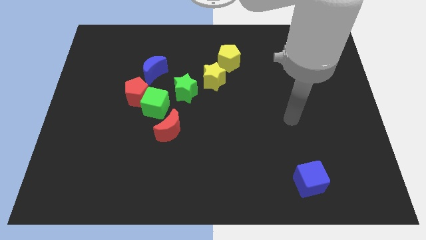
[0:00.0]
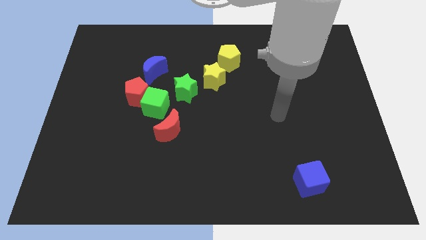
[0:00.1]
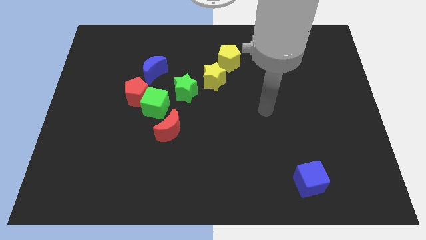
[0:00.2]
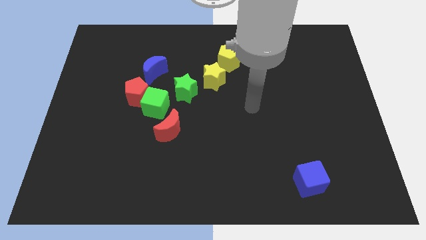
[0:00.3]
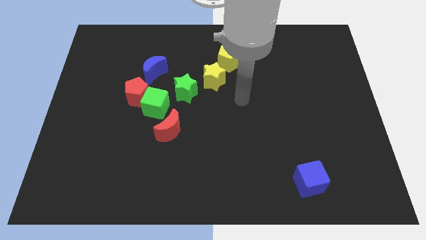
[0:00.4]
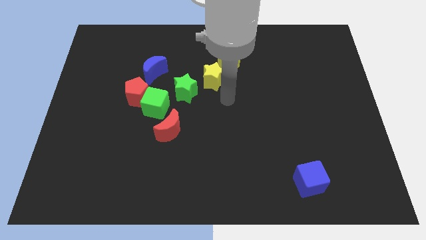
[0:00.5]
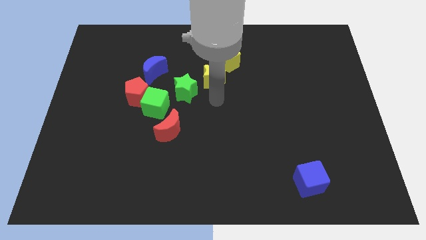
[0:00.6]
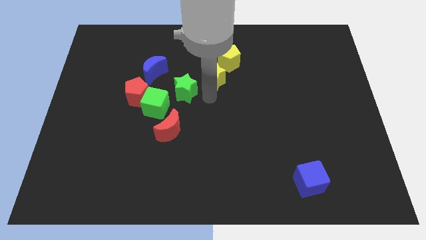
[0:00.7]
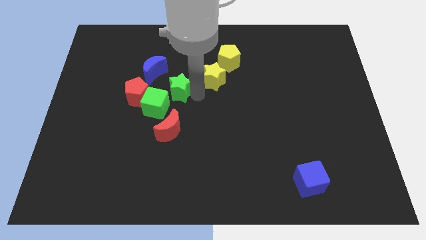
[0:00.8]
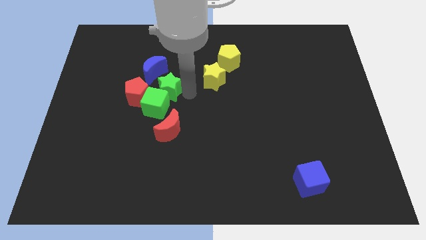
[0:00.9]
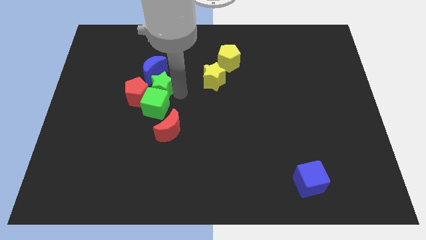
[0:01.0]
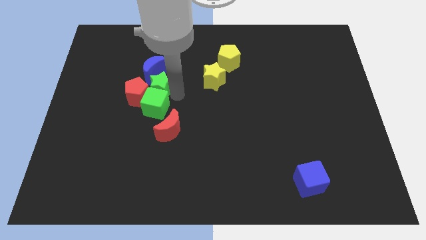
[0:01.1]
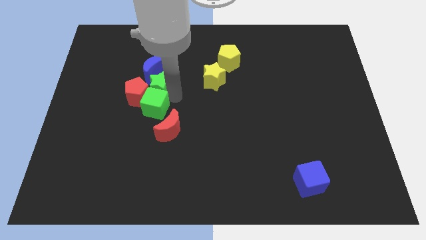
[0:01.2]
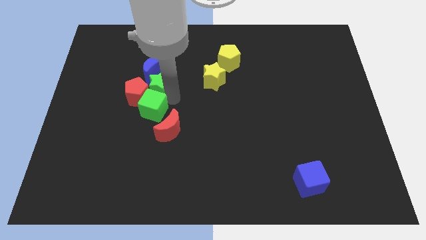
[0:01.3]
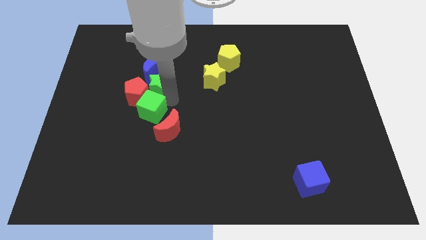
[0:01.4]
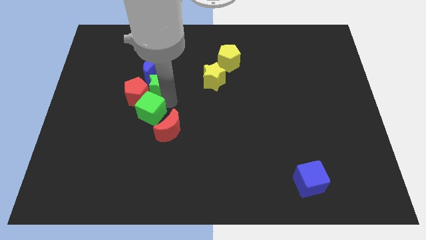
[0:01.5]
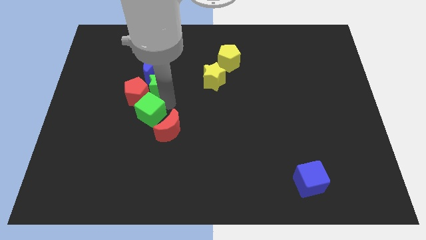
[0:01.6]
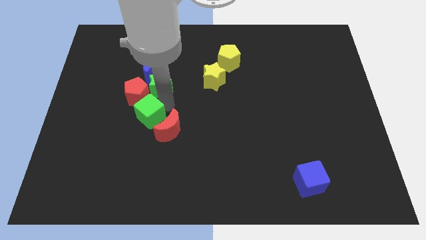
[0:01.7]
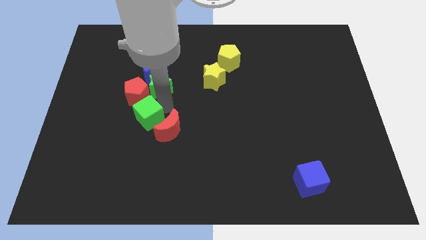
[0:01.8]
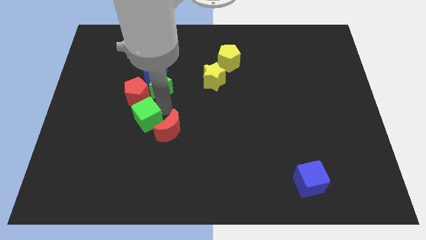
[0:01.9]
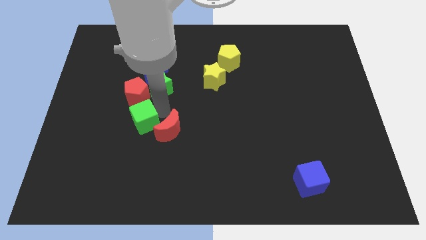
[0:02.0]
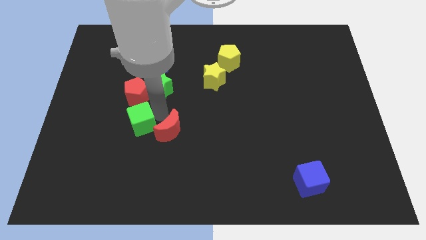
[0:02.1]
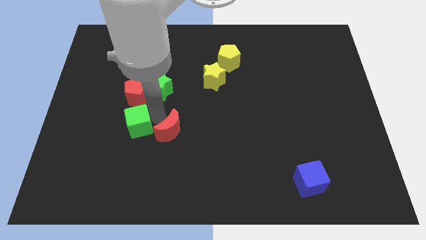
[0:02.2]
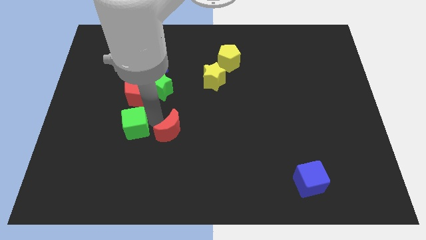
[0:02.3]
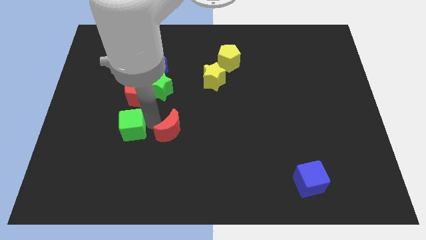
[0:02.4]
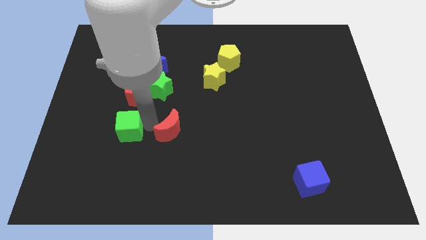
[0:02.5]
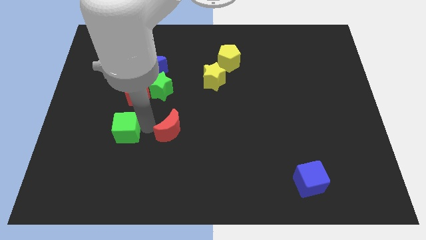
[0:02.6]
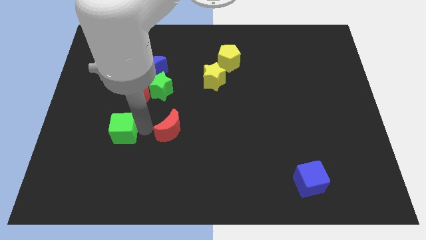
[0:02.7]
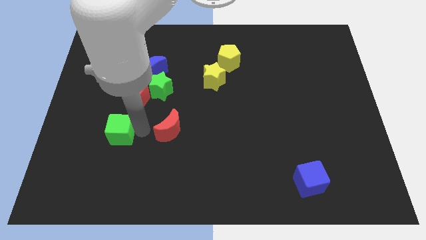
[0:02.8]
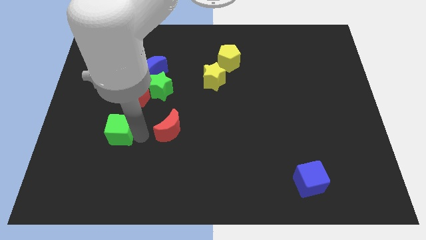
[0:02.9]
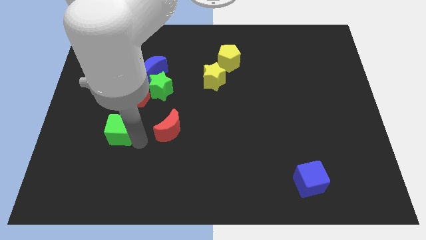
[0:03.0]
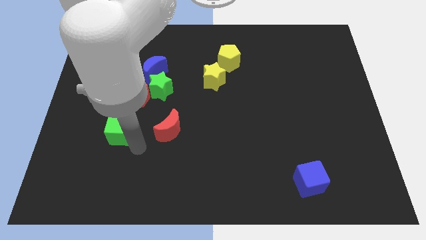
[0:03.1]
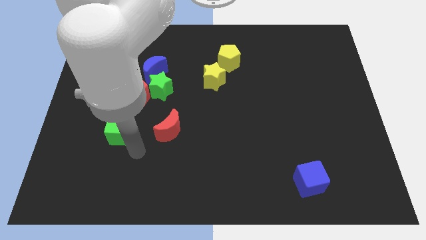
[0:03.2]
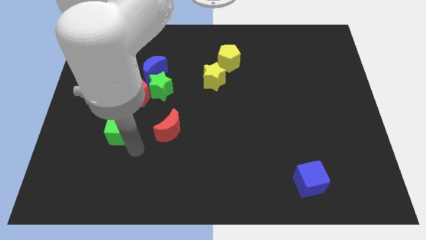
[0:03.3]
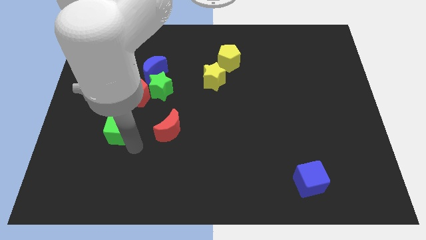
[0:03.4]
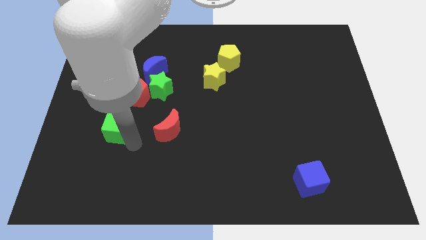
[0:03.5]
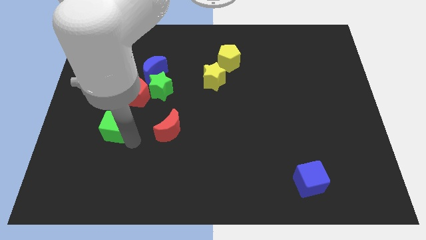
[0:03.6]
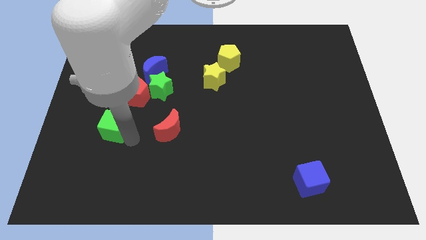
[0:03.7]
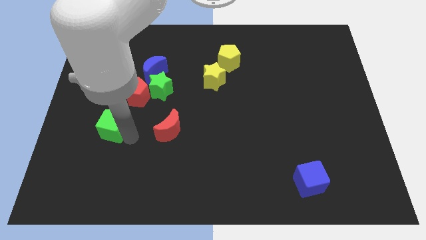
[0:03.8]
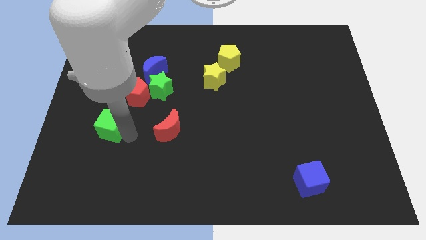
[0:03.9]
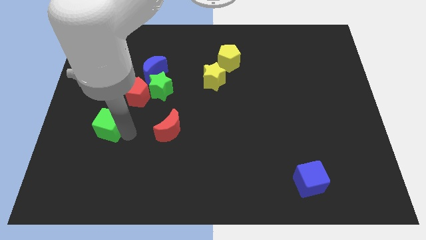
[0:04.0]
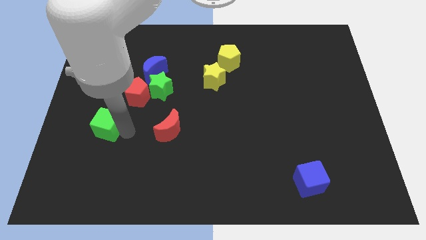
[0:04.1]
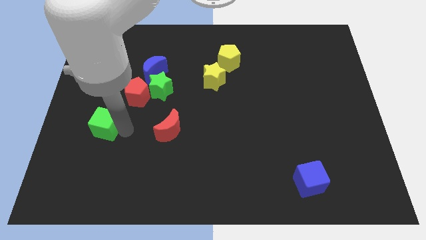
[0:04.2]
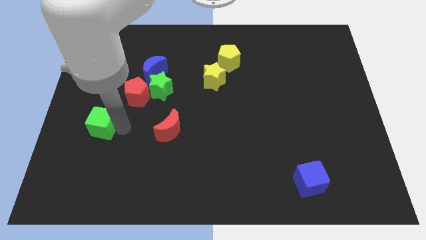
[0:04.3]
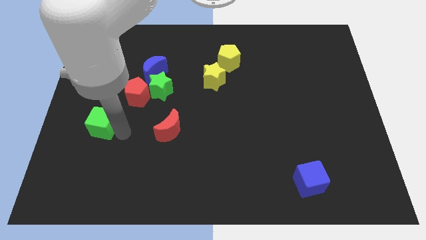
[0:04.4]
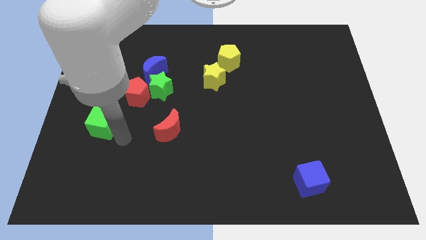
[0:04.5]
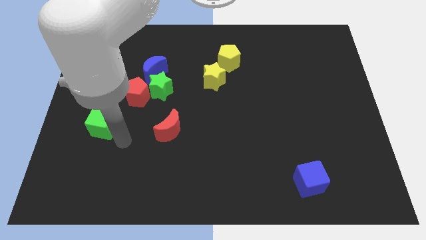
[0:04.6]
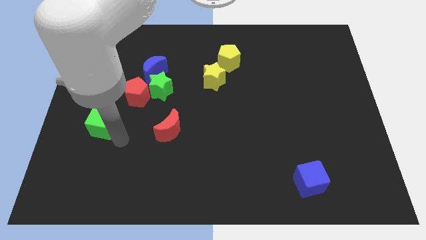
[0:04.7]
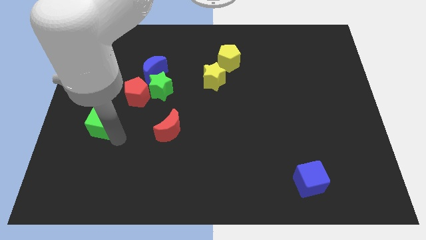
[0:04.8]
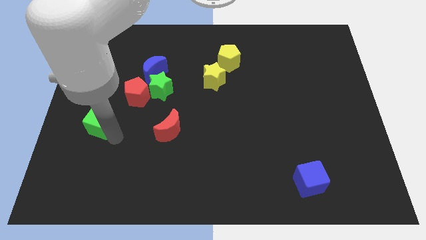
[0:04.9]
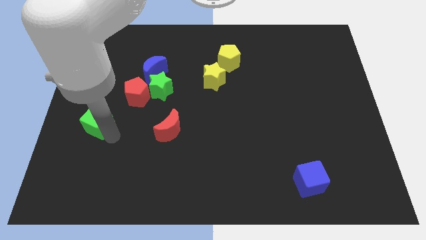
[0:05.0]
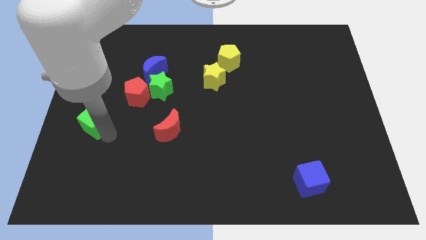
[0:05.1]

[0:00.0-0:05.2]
slide the green cube to the center left

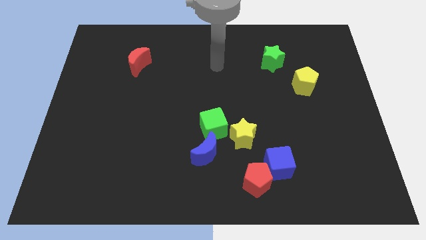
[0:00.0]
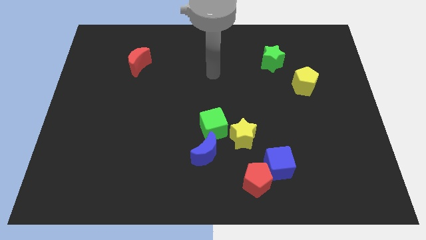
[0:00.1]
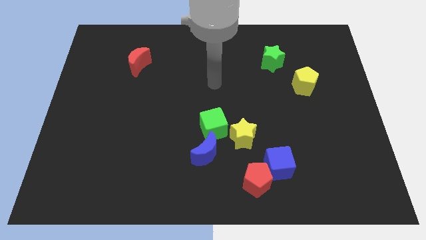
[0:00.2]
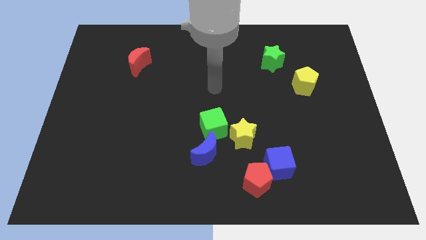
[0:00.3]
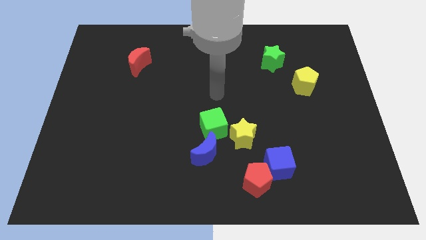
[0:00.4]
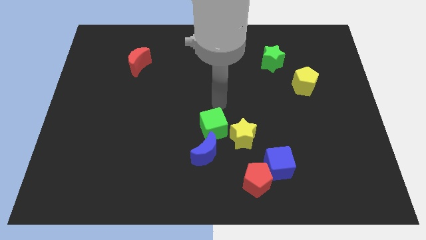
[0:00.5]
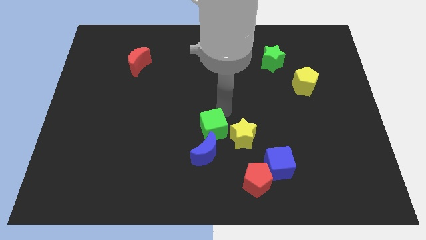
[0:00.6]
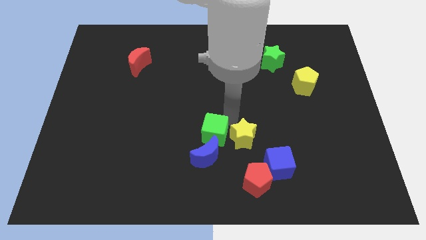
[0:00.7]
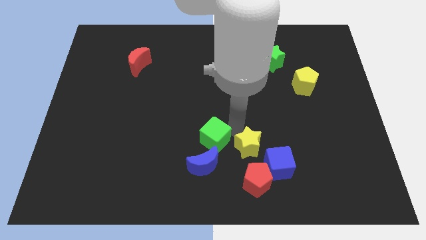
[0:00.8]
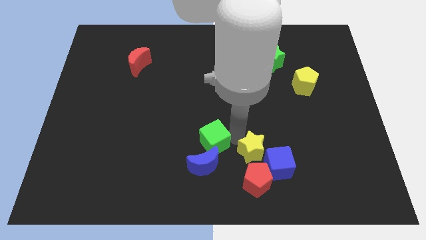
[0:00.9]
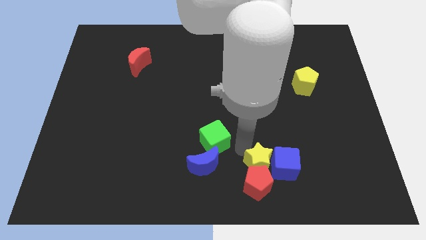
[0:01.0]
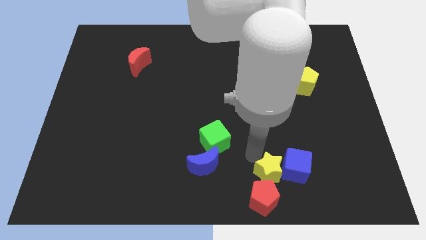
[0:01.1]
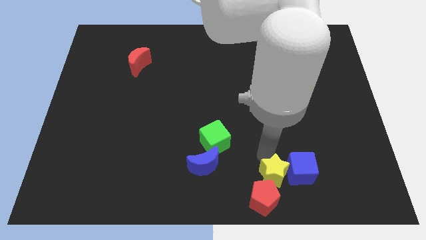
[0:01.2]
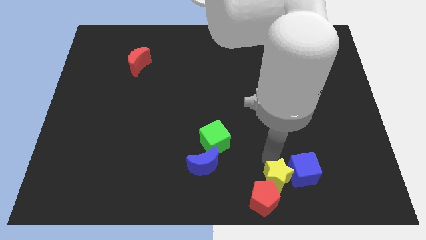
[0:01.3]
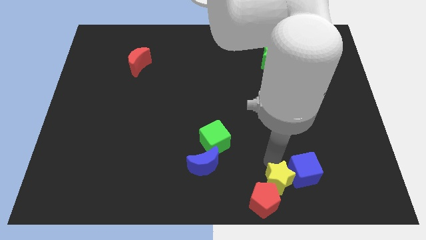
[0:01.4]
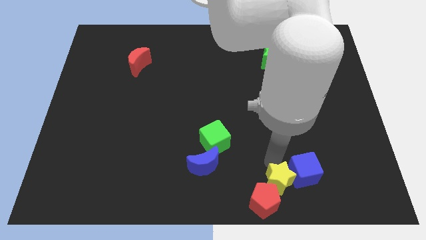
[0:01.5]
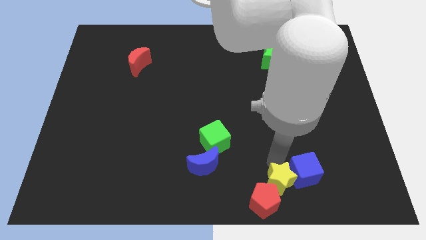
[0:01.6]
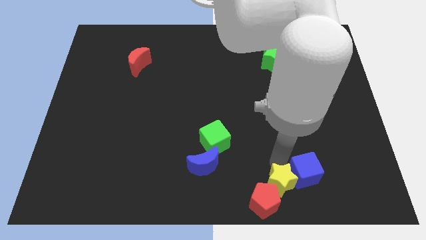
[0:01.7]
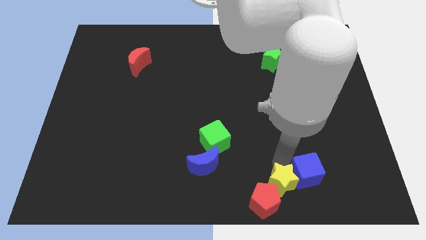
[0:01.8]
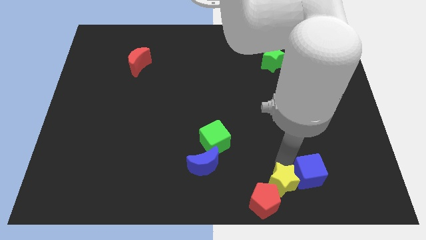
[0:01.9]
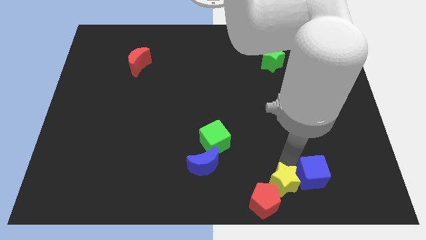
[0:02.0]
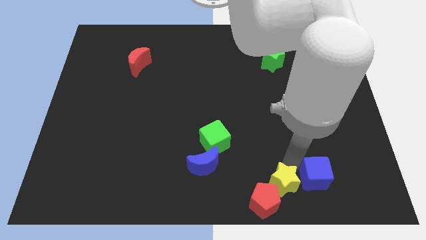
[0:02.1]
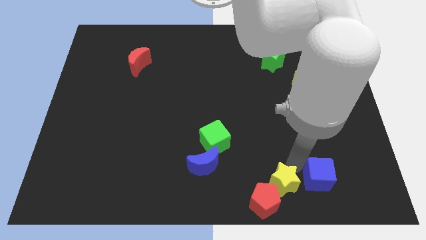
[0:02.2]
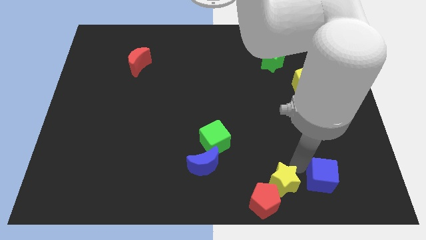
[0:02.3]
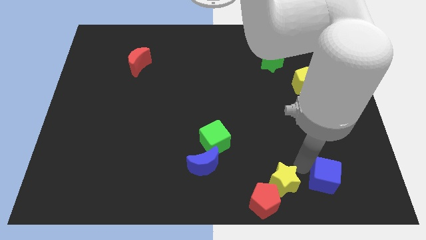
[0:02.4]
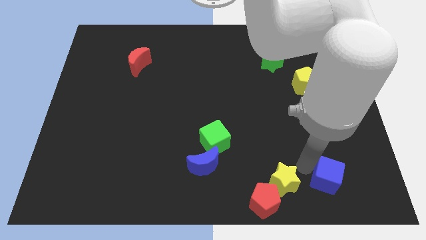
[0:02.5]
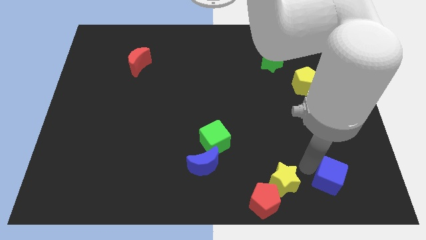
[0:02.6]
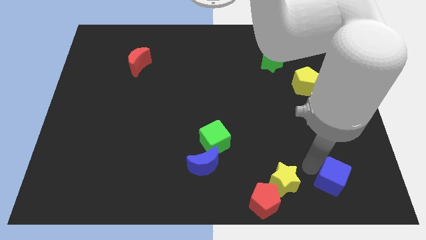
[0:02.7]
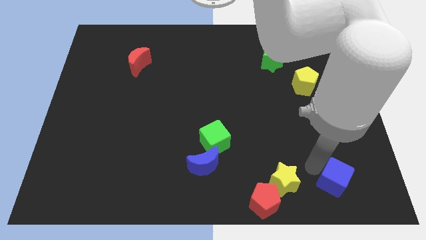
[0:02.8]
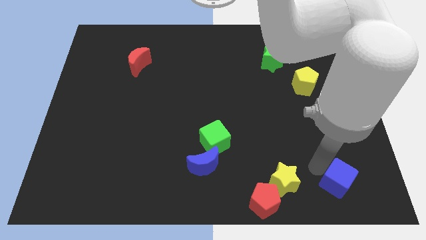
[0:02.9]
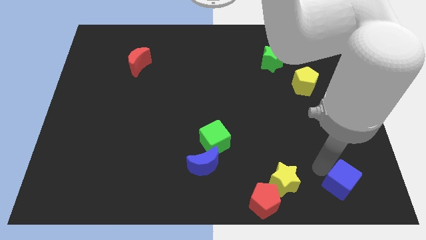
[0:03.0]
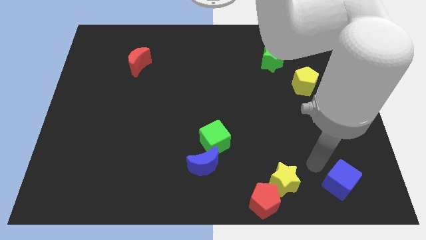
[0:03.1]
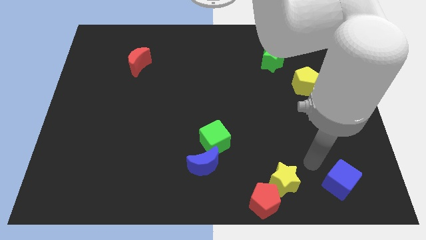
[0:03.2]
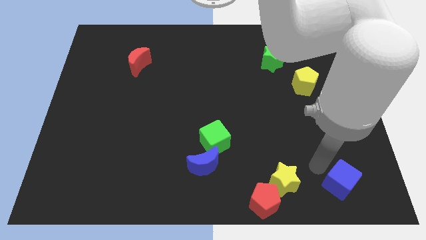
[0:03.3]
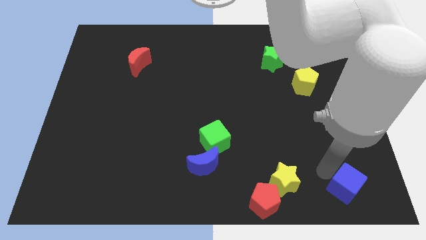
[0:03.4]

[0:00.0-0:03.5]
move the blue cube to the bottom right of the board
